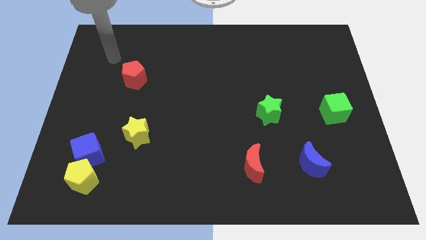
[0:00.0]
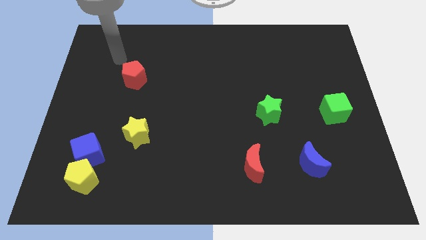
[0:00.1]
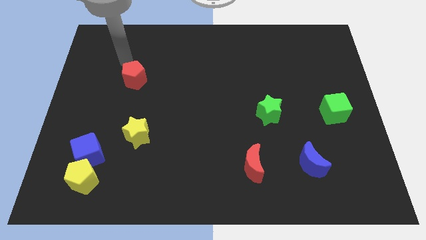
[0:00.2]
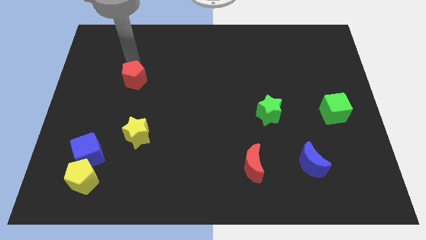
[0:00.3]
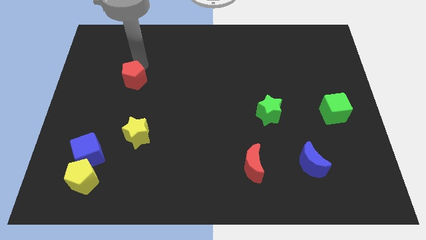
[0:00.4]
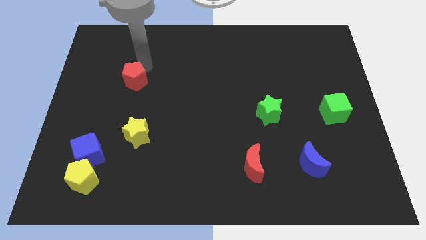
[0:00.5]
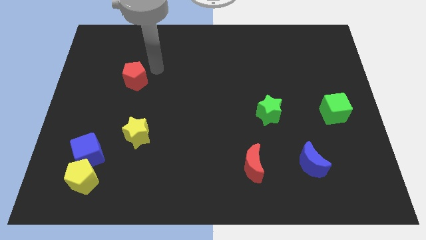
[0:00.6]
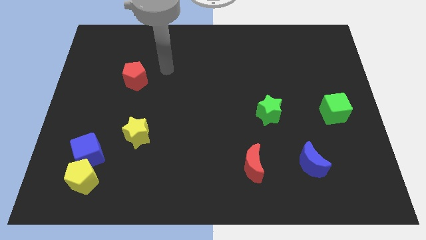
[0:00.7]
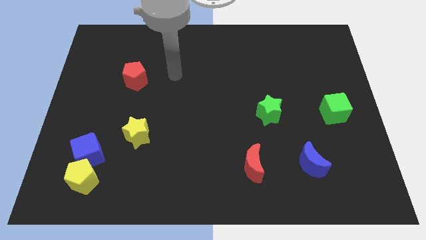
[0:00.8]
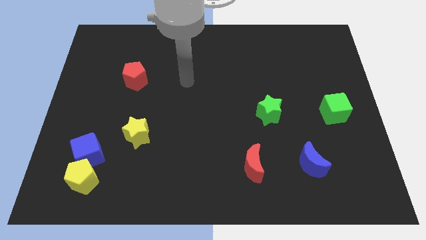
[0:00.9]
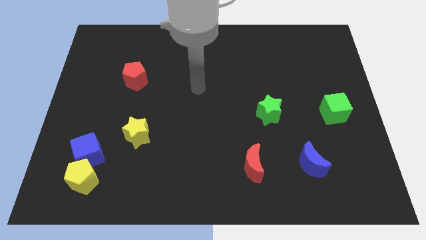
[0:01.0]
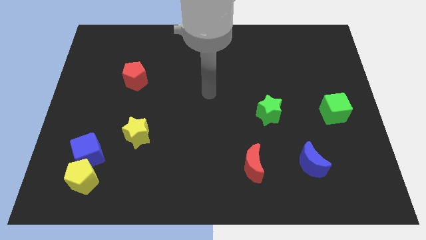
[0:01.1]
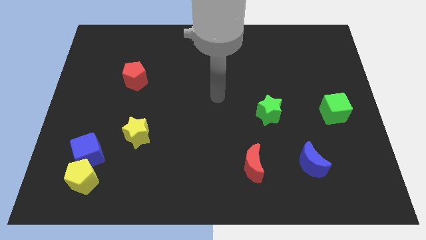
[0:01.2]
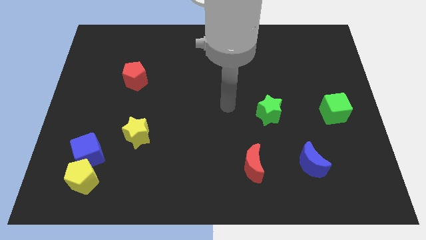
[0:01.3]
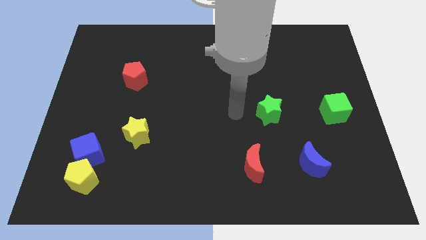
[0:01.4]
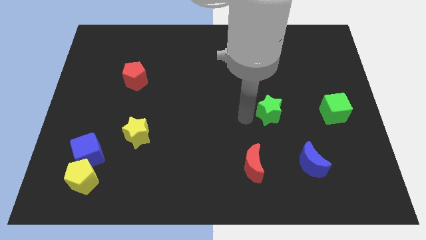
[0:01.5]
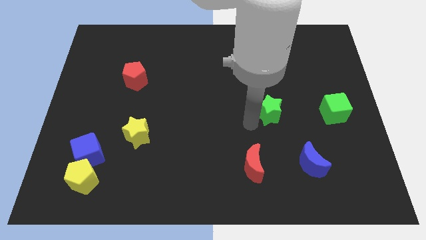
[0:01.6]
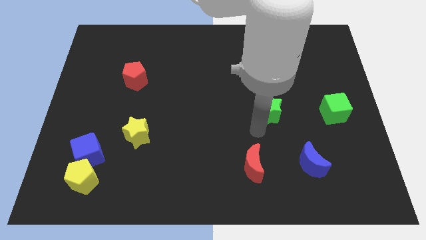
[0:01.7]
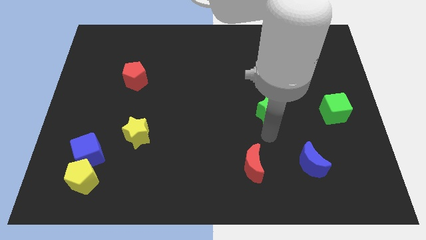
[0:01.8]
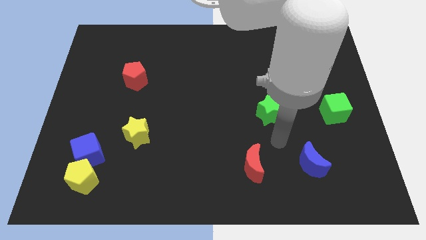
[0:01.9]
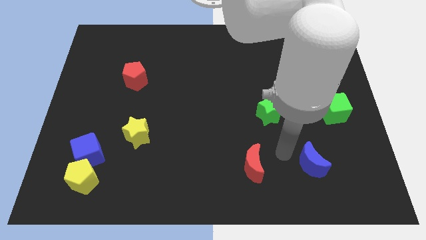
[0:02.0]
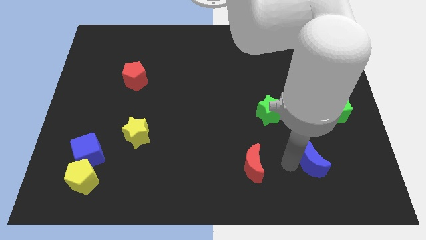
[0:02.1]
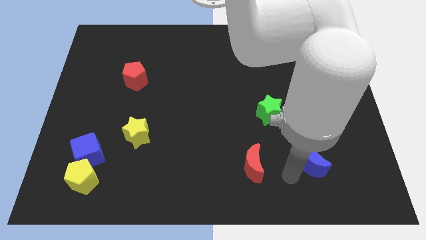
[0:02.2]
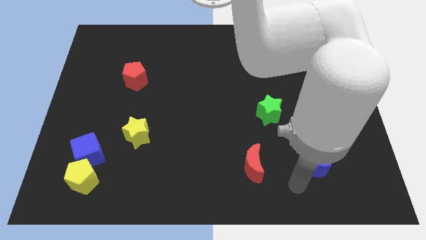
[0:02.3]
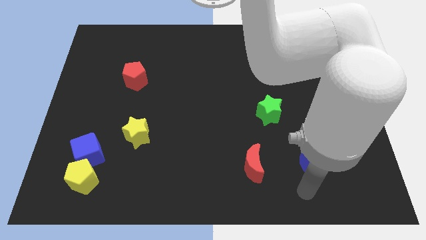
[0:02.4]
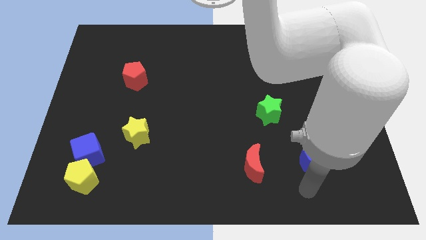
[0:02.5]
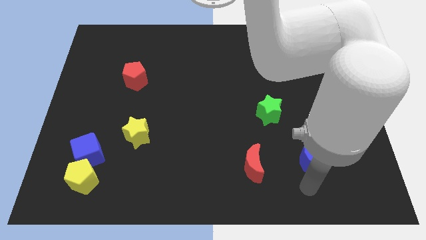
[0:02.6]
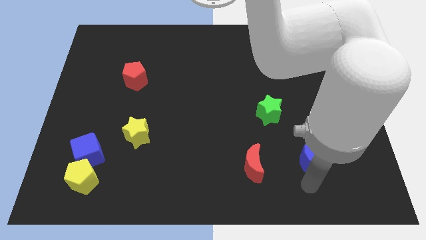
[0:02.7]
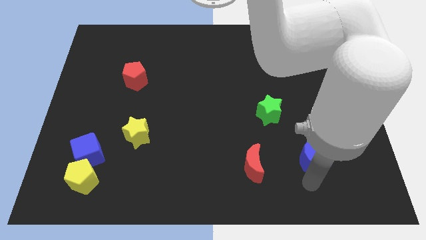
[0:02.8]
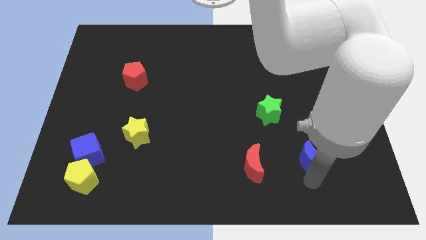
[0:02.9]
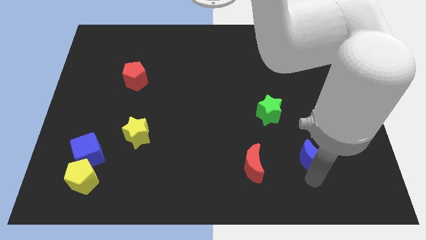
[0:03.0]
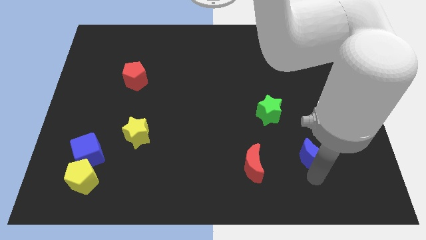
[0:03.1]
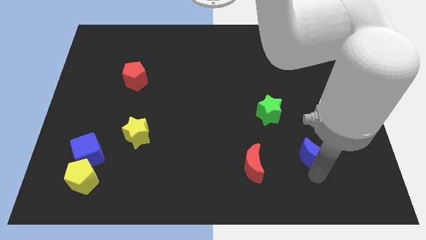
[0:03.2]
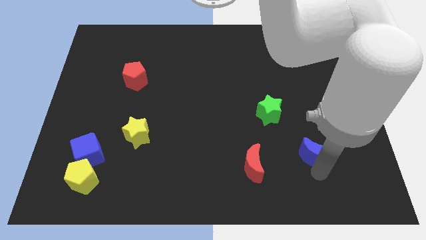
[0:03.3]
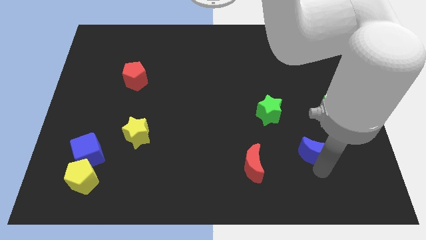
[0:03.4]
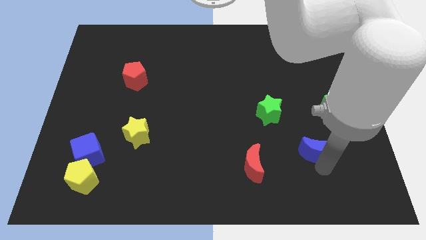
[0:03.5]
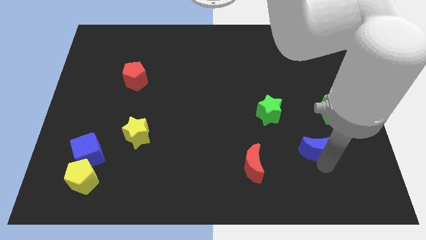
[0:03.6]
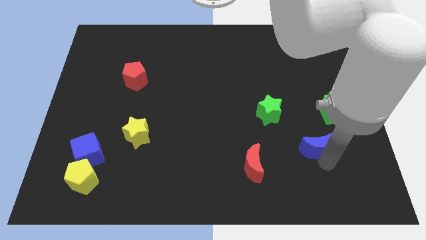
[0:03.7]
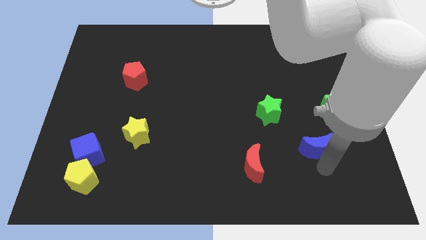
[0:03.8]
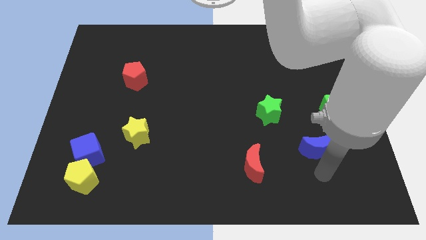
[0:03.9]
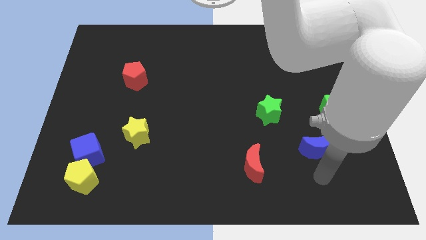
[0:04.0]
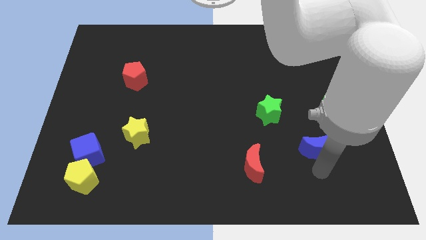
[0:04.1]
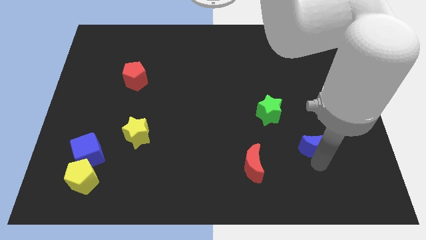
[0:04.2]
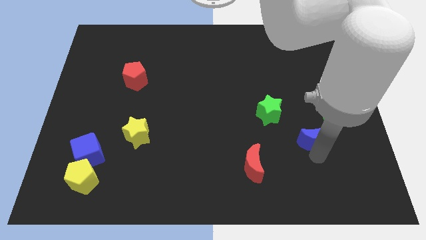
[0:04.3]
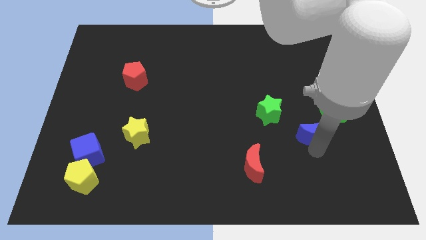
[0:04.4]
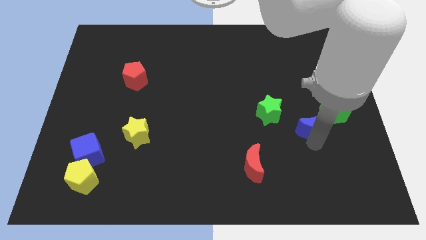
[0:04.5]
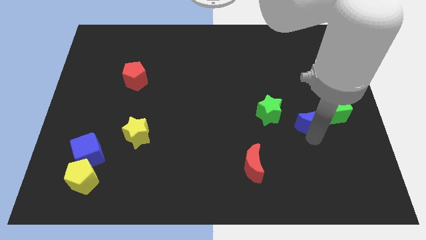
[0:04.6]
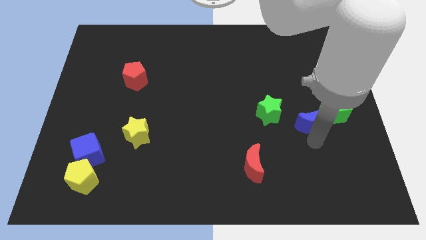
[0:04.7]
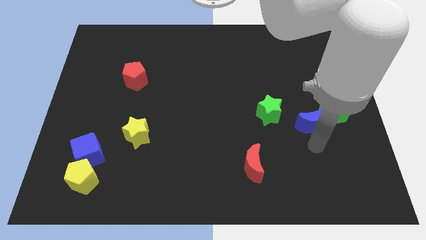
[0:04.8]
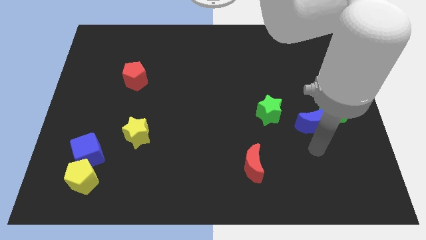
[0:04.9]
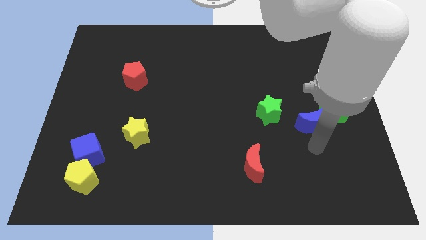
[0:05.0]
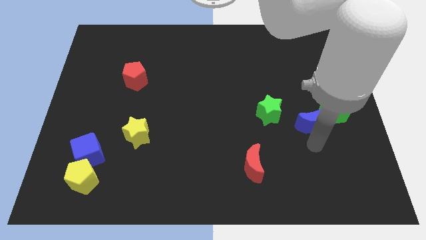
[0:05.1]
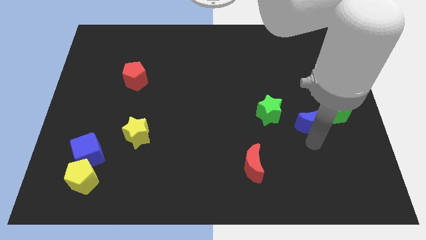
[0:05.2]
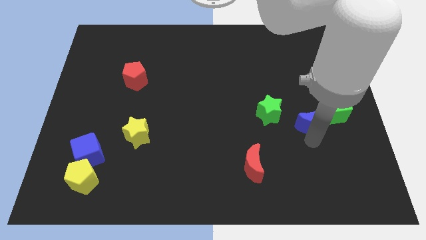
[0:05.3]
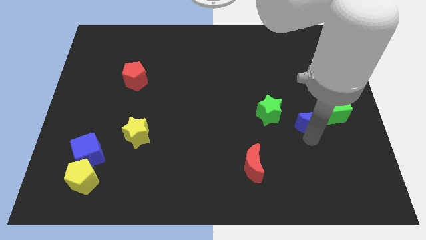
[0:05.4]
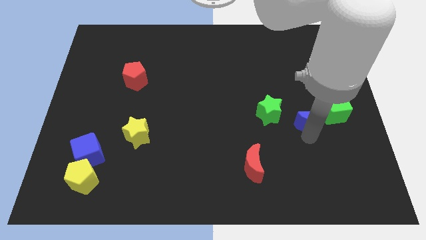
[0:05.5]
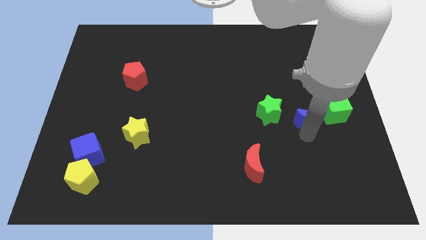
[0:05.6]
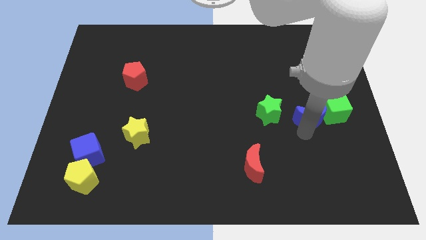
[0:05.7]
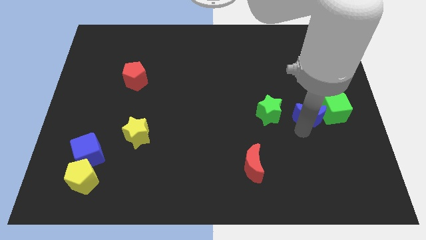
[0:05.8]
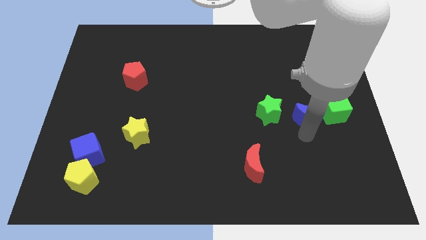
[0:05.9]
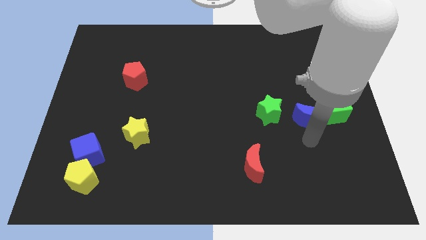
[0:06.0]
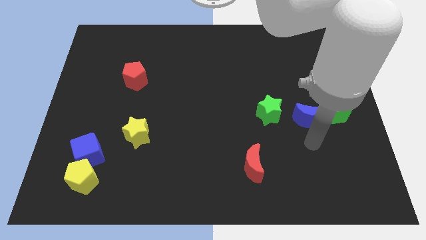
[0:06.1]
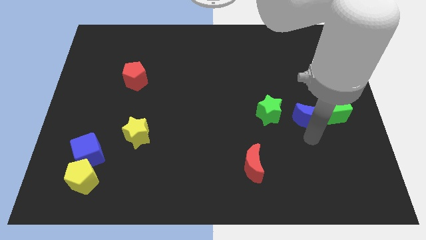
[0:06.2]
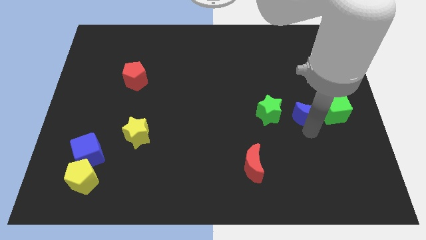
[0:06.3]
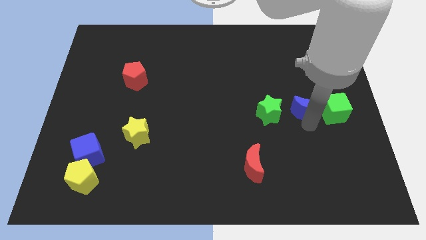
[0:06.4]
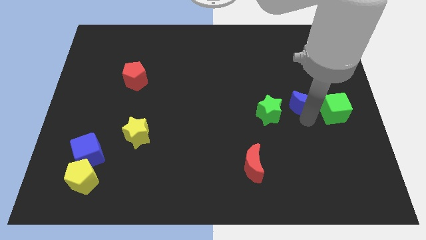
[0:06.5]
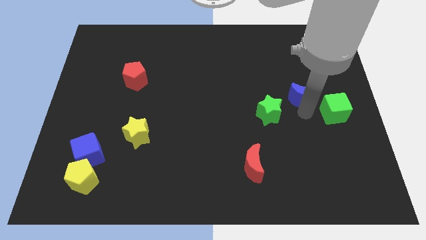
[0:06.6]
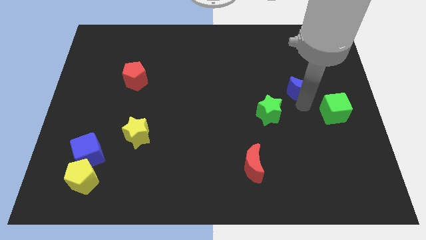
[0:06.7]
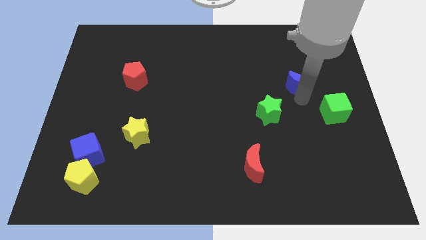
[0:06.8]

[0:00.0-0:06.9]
move the blue moon upwards

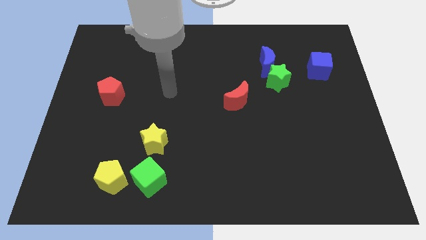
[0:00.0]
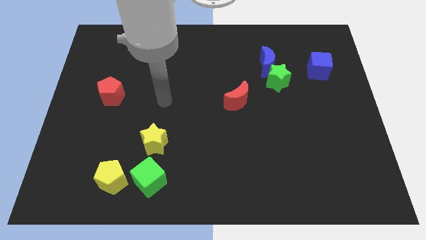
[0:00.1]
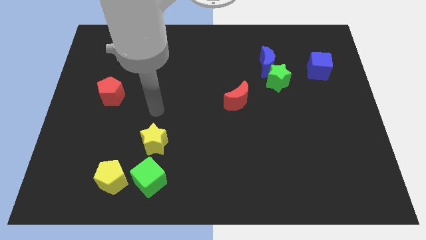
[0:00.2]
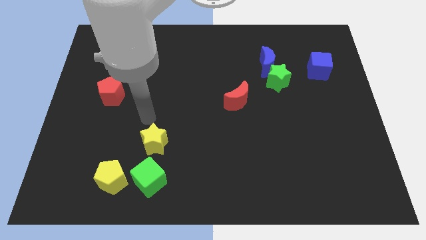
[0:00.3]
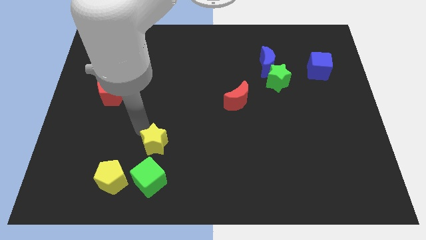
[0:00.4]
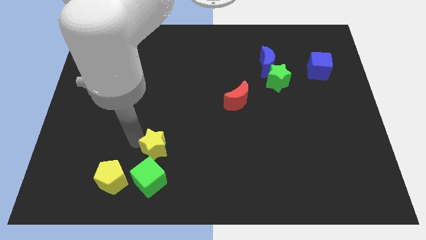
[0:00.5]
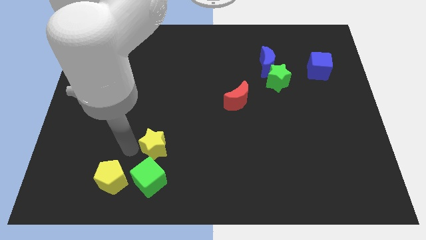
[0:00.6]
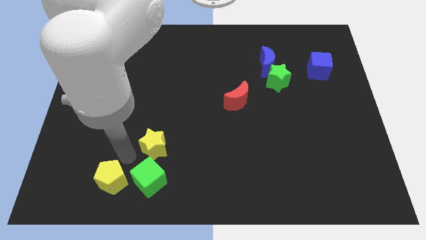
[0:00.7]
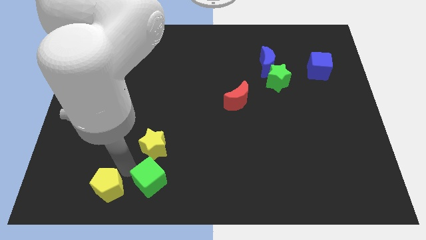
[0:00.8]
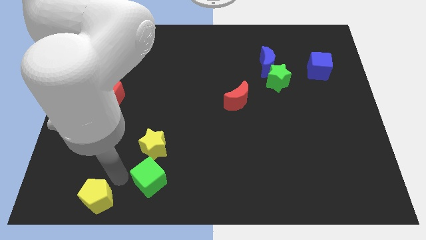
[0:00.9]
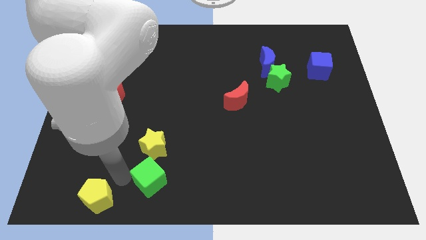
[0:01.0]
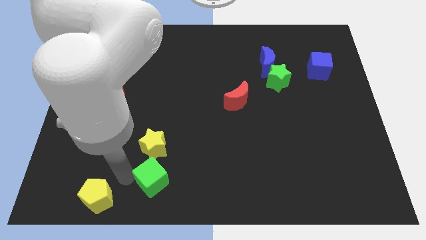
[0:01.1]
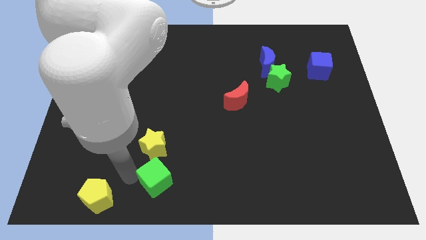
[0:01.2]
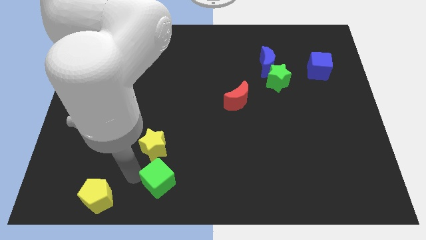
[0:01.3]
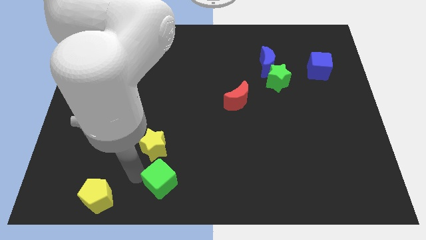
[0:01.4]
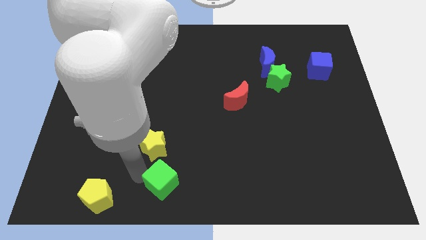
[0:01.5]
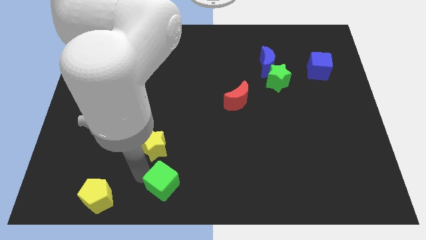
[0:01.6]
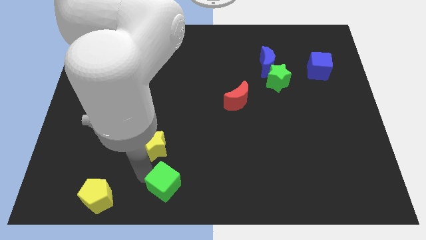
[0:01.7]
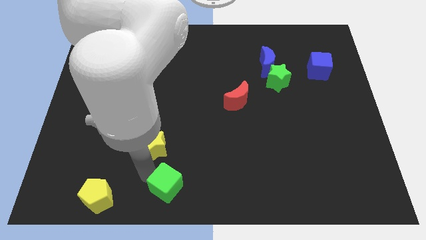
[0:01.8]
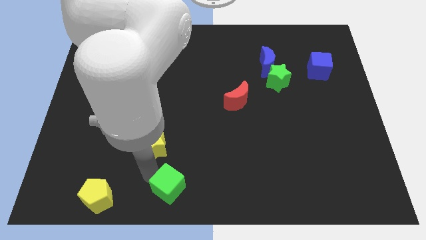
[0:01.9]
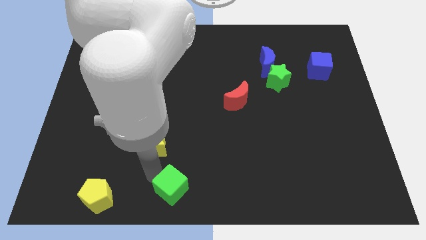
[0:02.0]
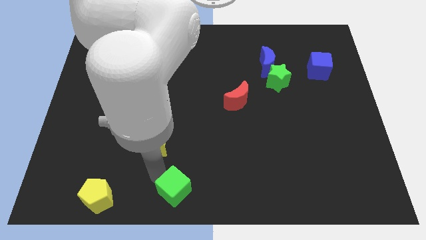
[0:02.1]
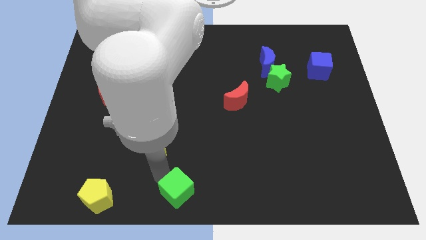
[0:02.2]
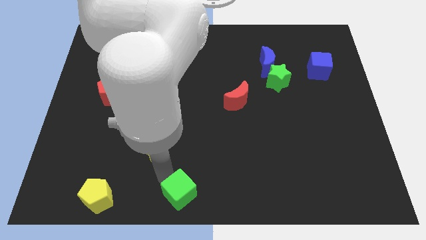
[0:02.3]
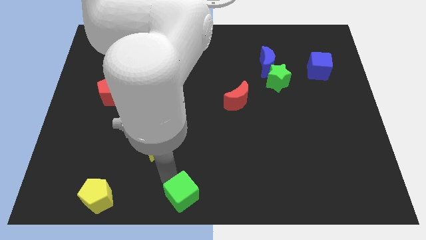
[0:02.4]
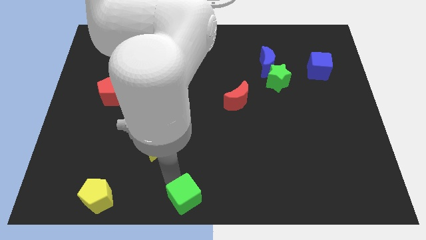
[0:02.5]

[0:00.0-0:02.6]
slightly move the green cube to the right
